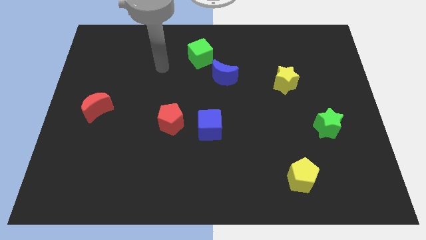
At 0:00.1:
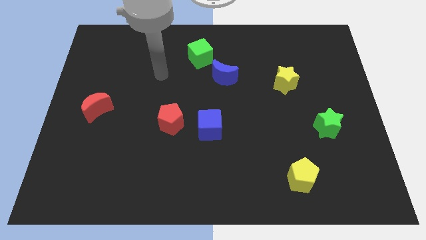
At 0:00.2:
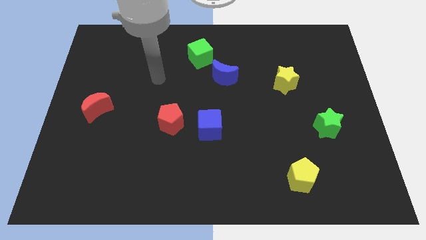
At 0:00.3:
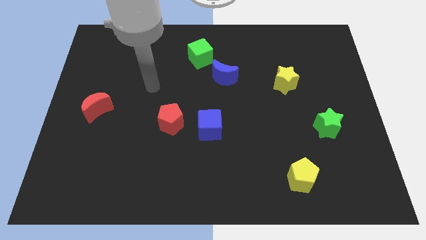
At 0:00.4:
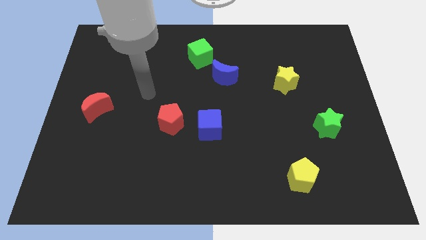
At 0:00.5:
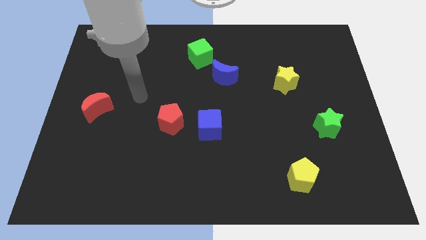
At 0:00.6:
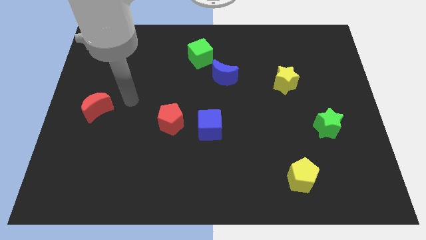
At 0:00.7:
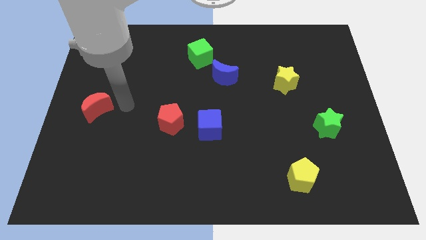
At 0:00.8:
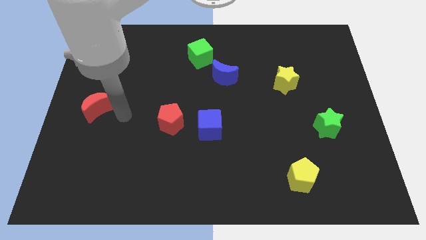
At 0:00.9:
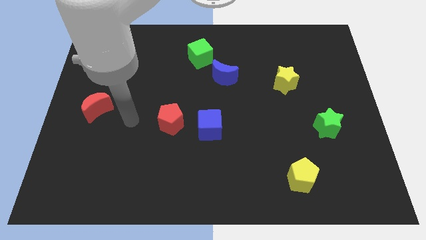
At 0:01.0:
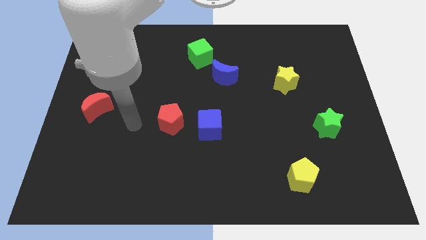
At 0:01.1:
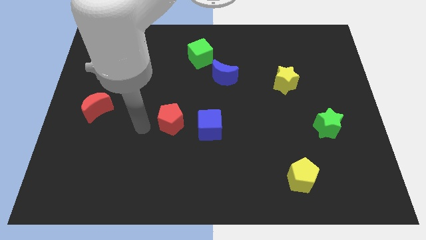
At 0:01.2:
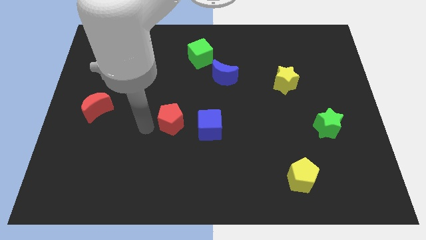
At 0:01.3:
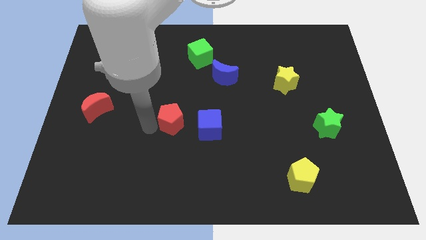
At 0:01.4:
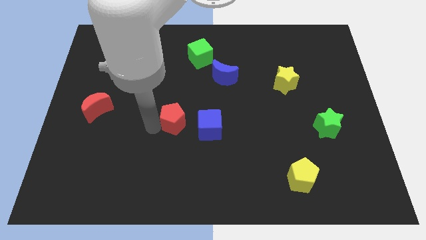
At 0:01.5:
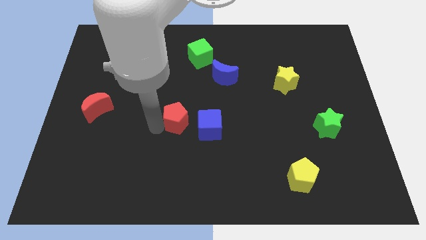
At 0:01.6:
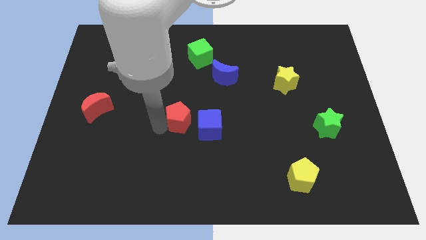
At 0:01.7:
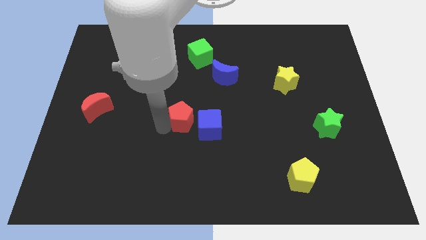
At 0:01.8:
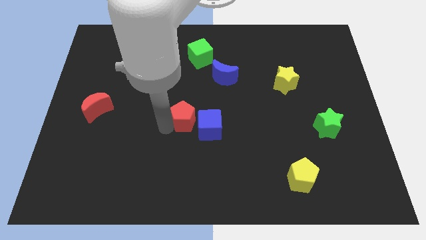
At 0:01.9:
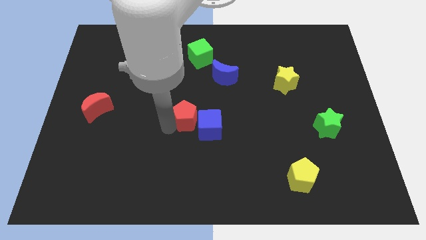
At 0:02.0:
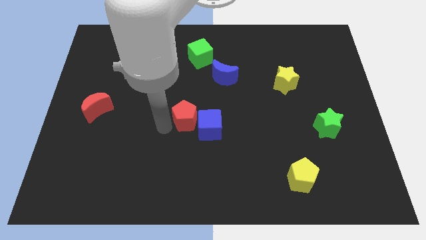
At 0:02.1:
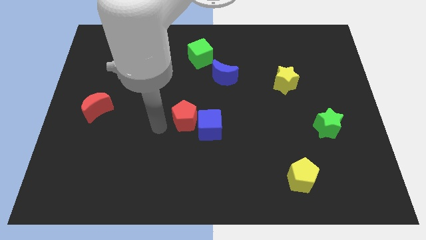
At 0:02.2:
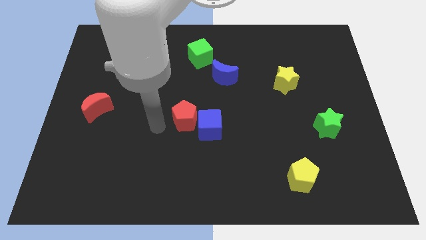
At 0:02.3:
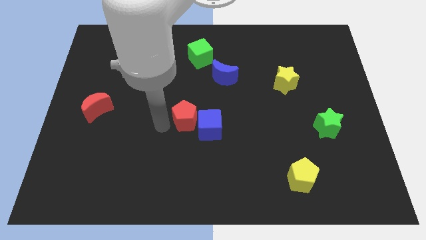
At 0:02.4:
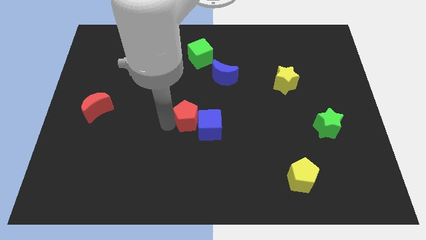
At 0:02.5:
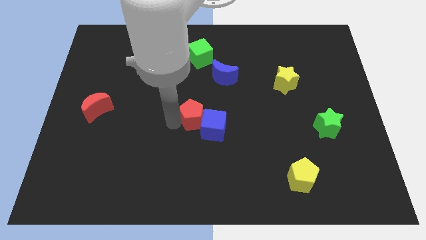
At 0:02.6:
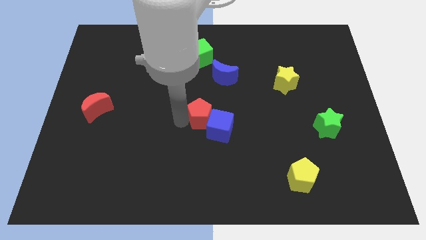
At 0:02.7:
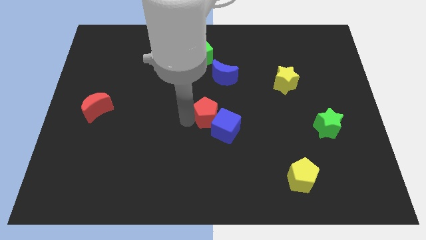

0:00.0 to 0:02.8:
slide the red pentagon slightly to the right

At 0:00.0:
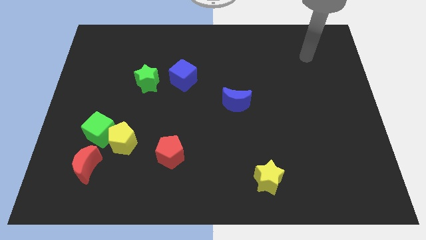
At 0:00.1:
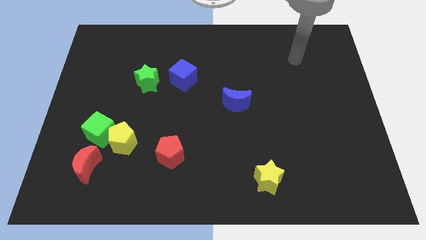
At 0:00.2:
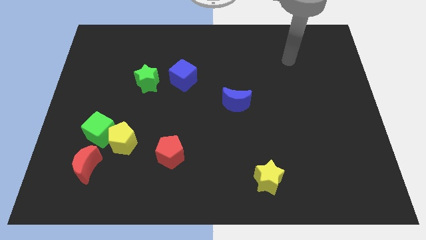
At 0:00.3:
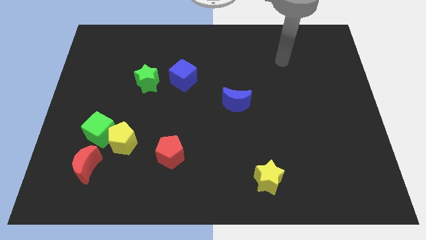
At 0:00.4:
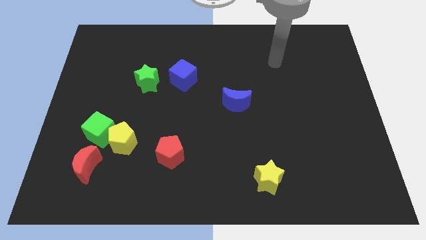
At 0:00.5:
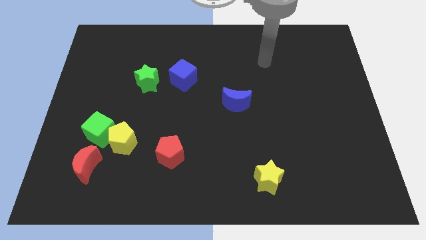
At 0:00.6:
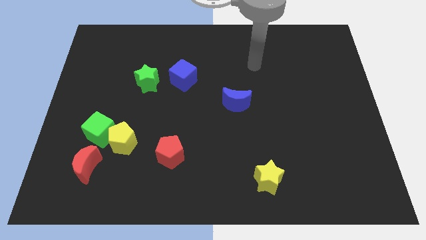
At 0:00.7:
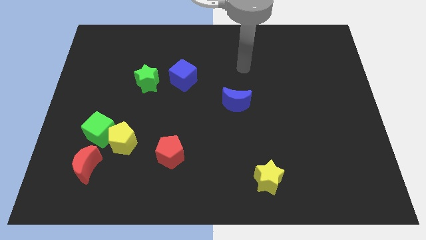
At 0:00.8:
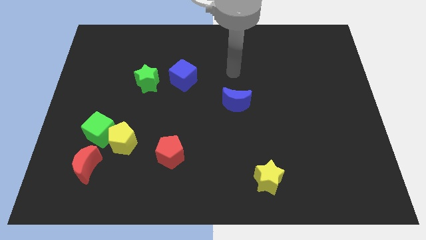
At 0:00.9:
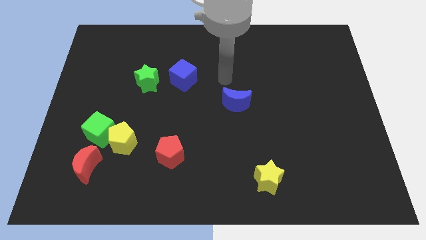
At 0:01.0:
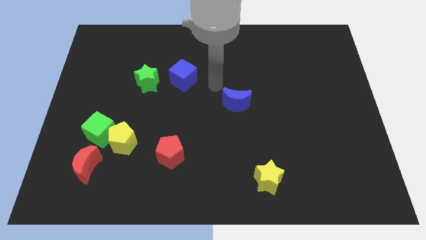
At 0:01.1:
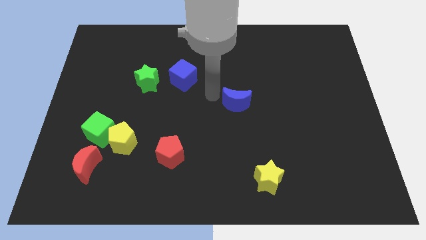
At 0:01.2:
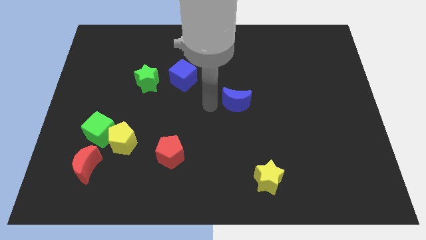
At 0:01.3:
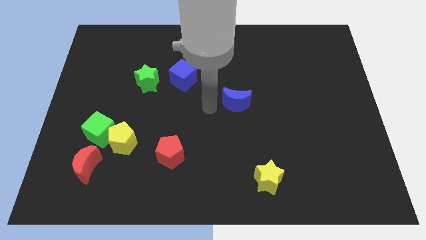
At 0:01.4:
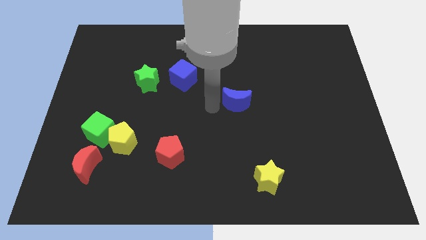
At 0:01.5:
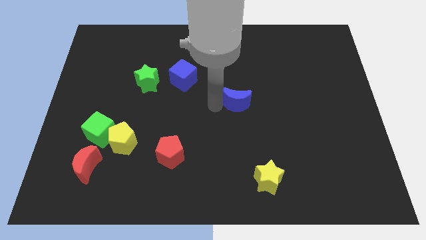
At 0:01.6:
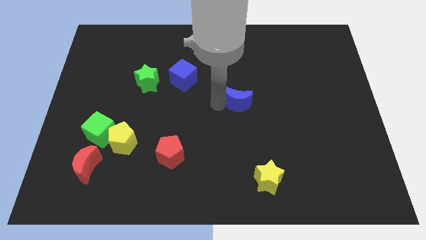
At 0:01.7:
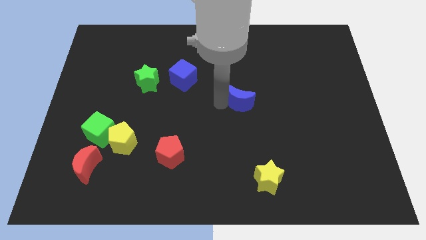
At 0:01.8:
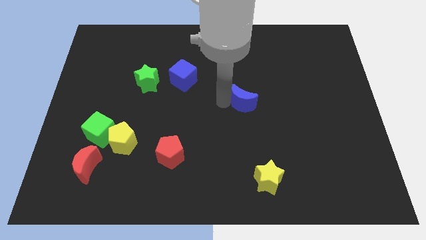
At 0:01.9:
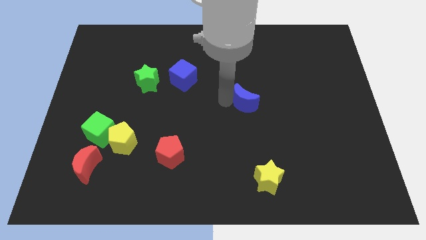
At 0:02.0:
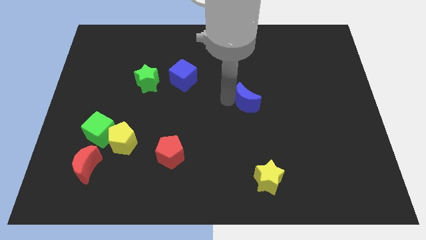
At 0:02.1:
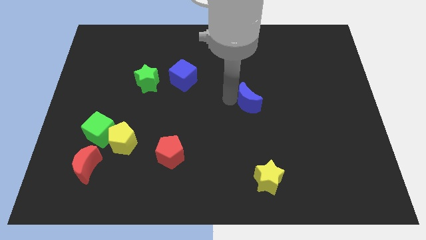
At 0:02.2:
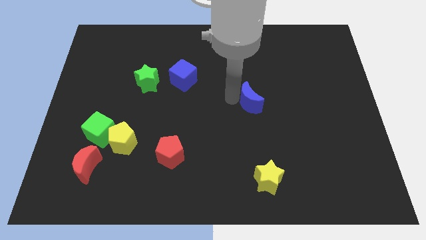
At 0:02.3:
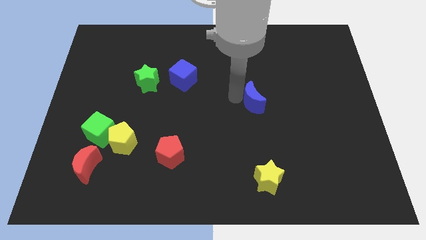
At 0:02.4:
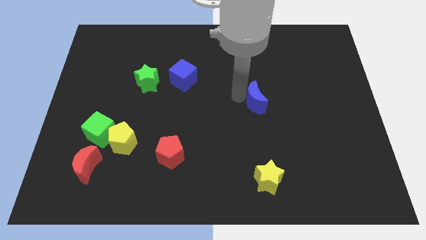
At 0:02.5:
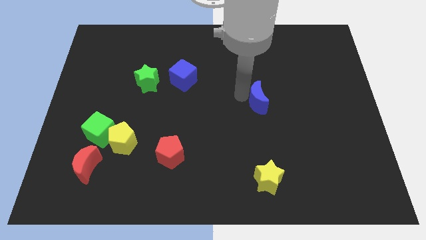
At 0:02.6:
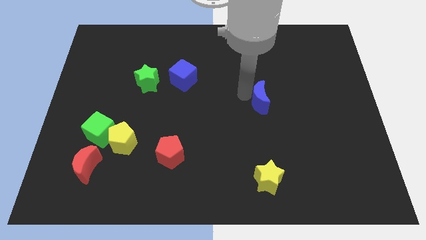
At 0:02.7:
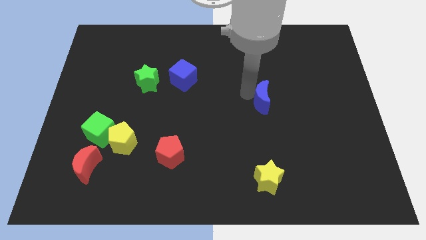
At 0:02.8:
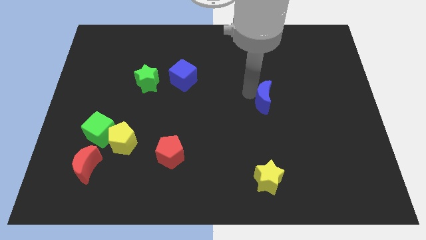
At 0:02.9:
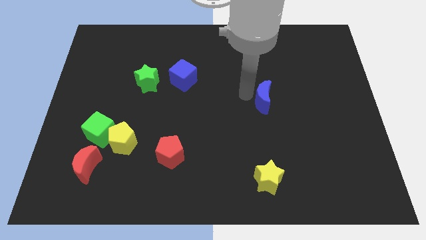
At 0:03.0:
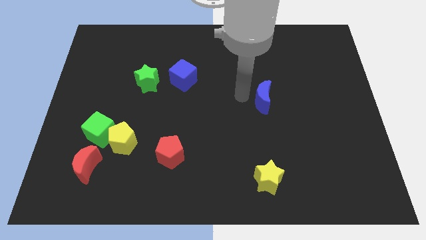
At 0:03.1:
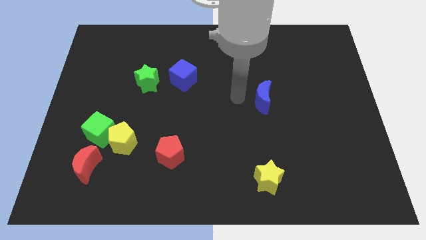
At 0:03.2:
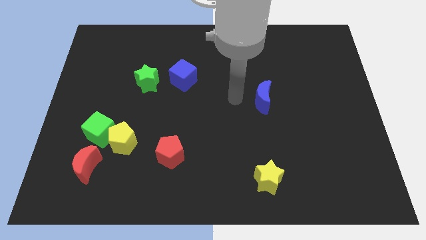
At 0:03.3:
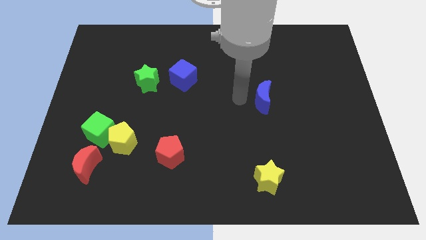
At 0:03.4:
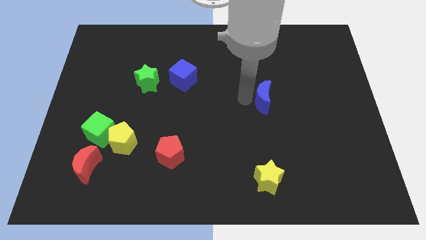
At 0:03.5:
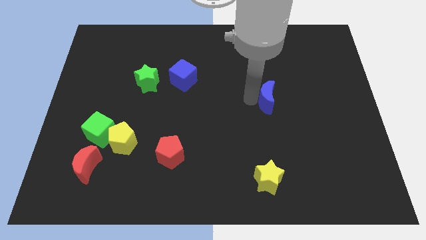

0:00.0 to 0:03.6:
slide the blue moon to the right a little

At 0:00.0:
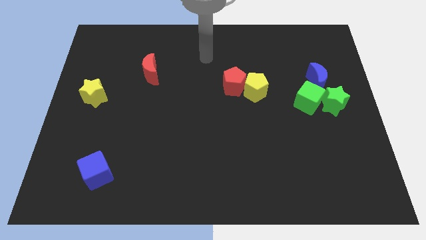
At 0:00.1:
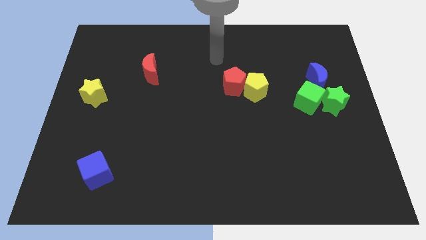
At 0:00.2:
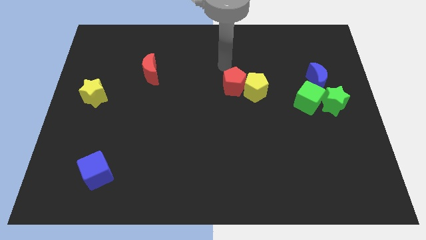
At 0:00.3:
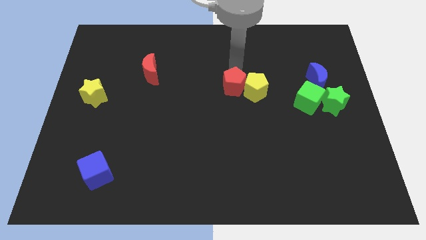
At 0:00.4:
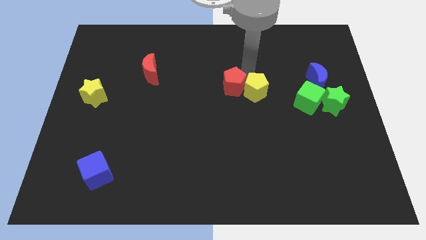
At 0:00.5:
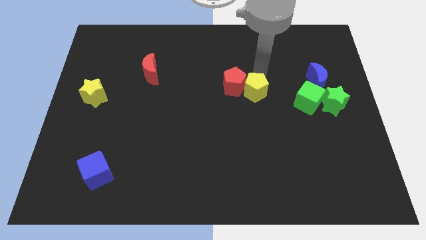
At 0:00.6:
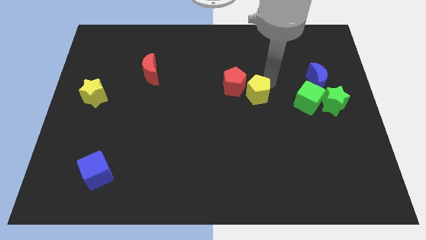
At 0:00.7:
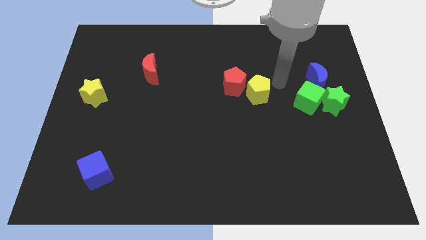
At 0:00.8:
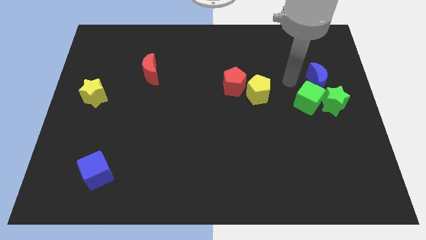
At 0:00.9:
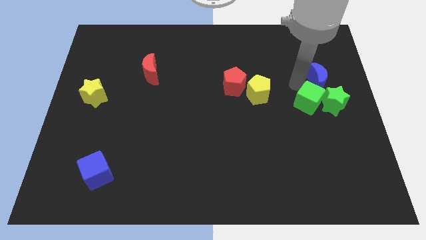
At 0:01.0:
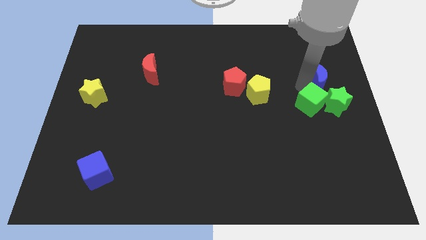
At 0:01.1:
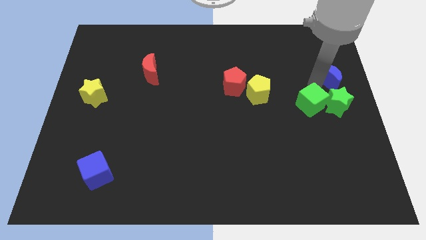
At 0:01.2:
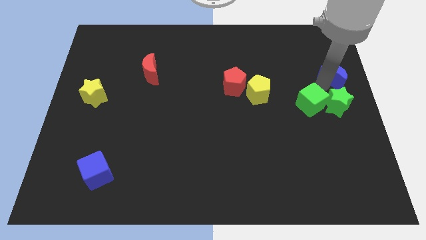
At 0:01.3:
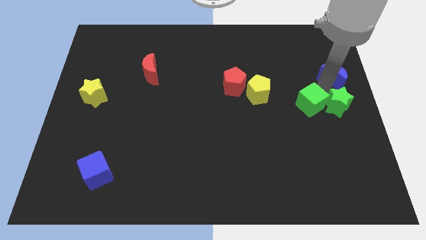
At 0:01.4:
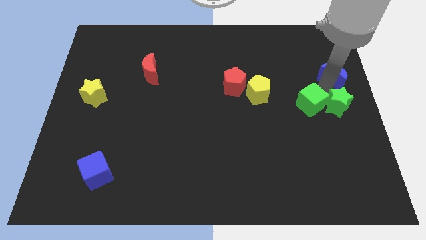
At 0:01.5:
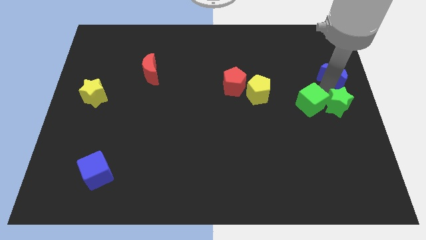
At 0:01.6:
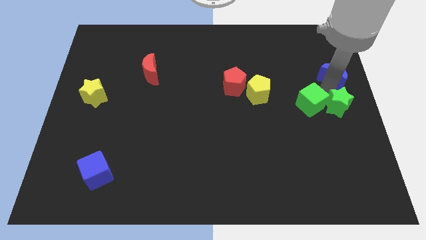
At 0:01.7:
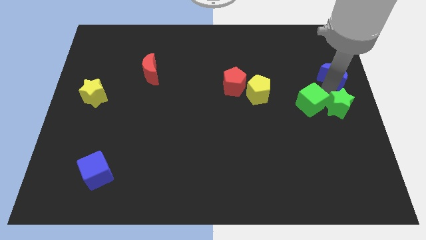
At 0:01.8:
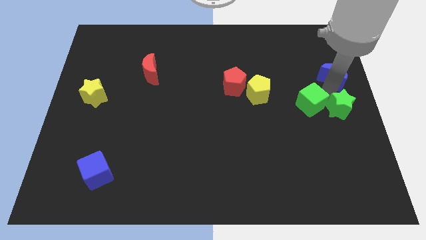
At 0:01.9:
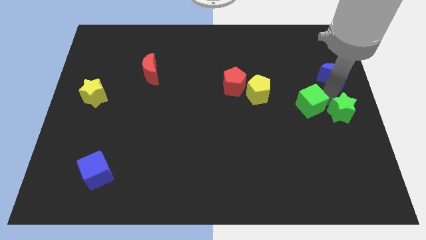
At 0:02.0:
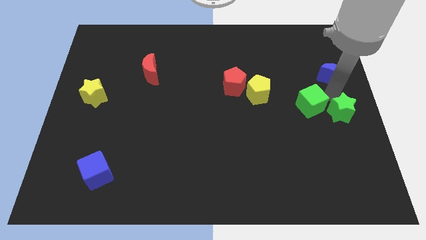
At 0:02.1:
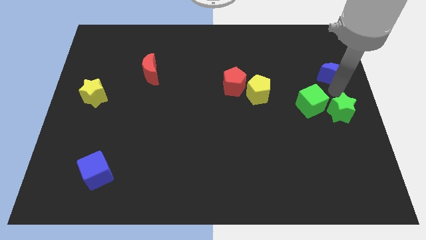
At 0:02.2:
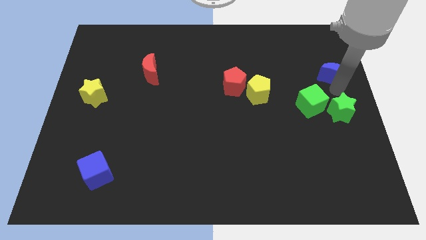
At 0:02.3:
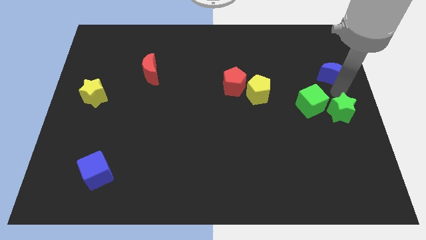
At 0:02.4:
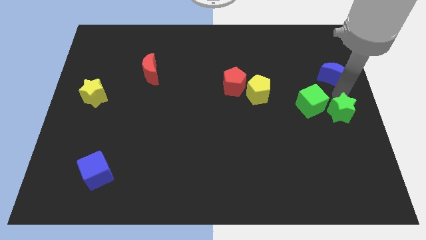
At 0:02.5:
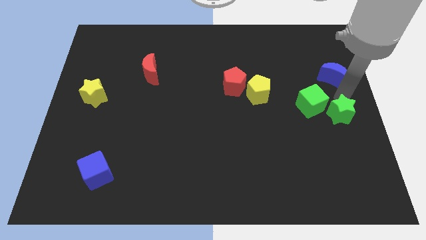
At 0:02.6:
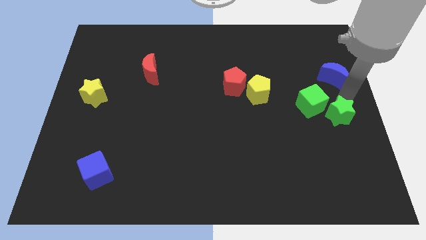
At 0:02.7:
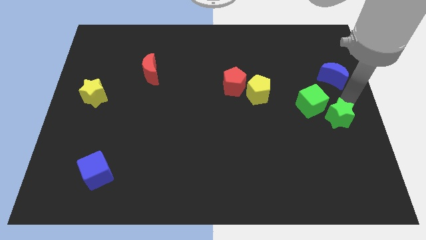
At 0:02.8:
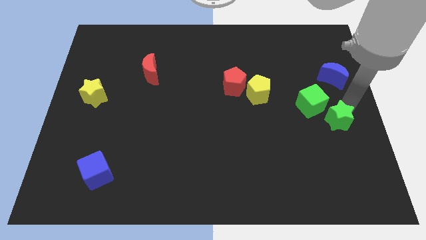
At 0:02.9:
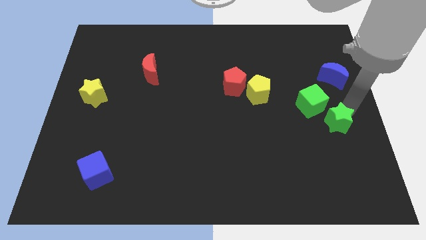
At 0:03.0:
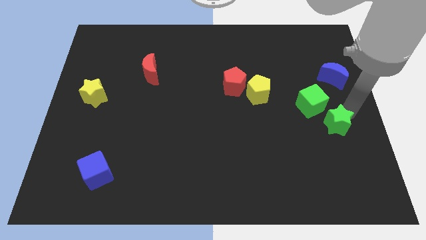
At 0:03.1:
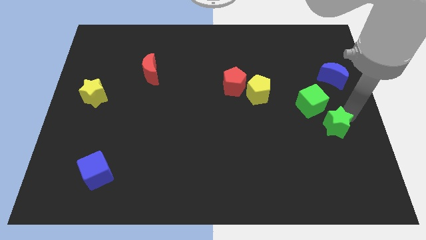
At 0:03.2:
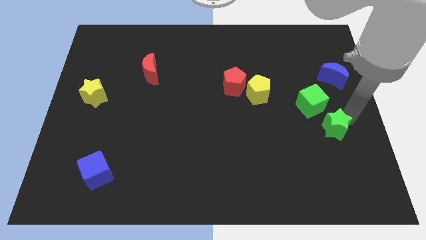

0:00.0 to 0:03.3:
move the green star downwards a little bit
